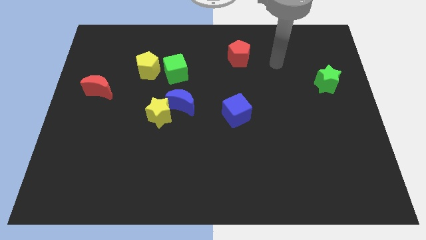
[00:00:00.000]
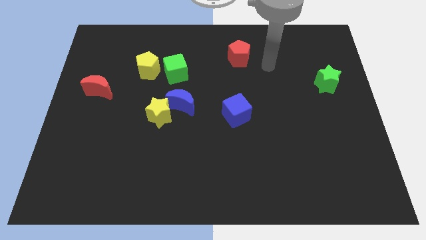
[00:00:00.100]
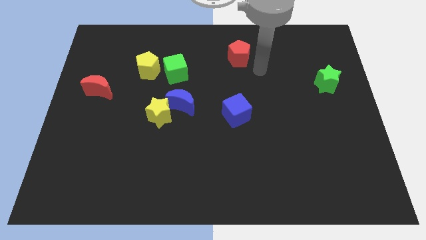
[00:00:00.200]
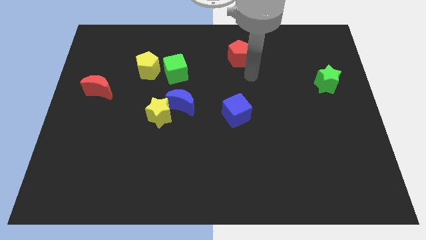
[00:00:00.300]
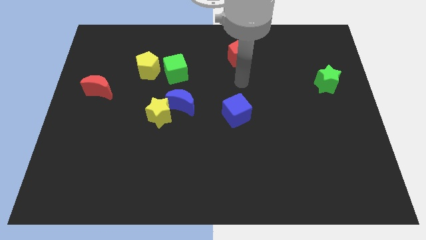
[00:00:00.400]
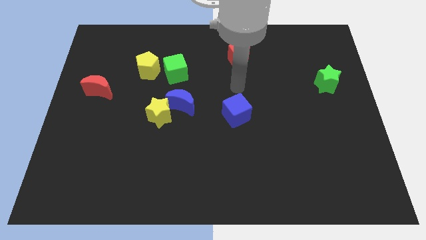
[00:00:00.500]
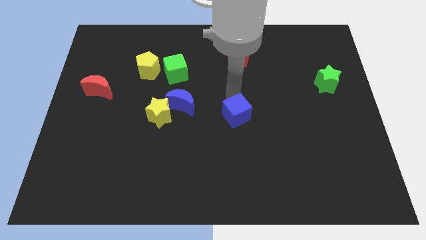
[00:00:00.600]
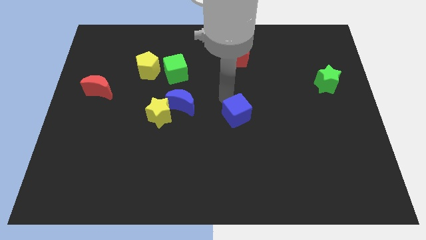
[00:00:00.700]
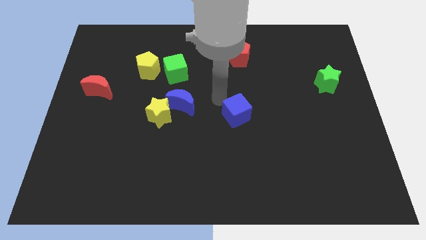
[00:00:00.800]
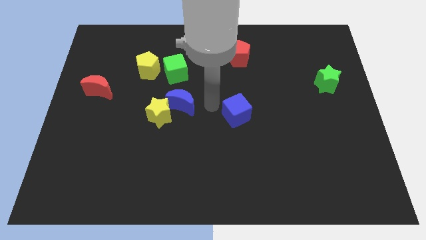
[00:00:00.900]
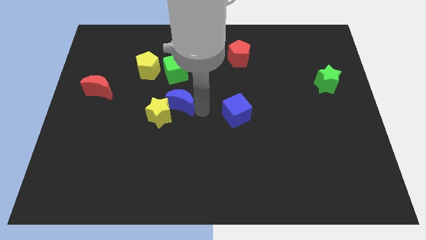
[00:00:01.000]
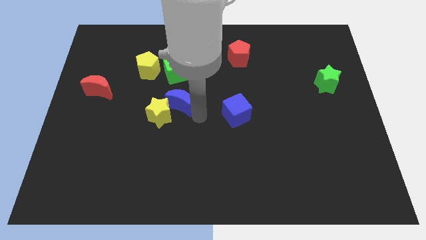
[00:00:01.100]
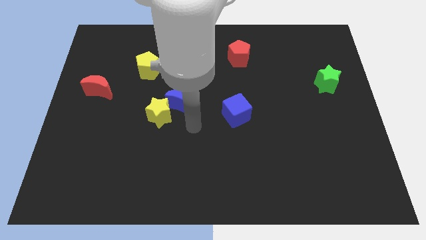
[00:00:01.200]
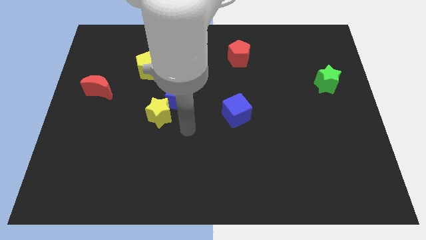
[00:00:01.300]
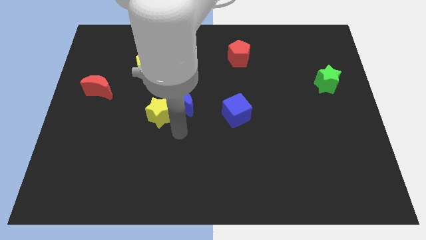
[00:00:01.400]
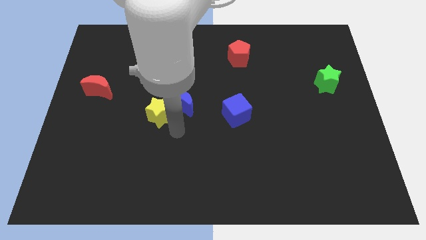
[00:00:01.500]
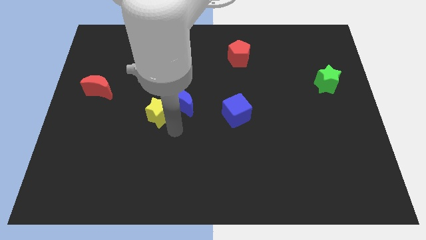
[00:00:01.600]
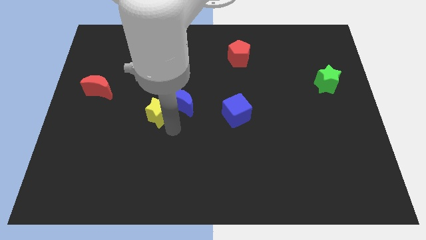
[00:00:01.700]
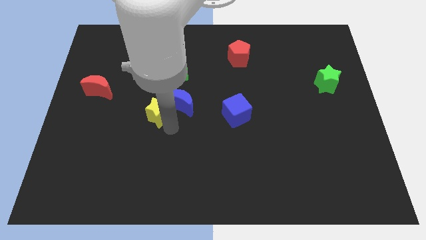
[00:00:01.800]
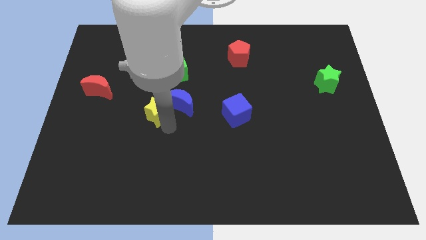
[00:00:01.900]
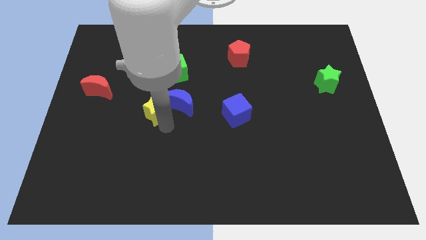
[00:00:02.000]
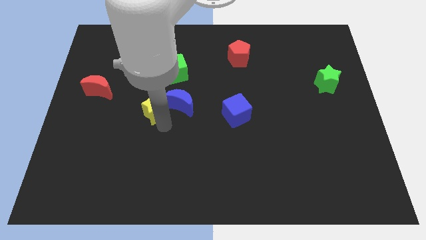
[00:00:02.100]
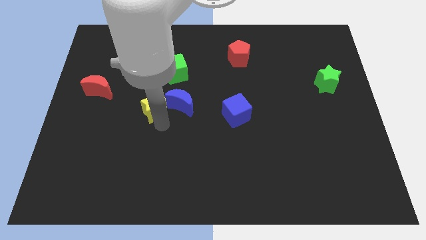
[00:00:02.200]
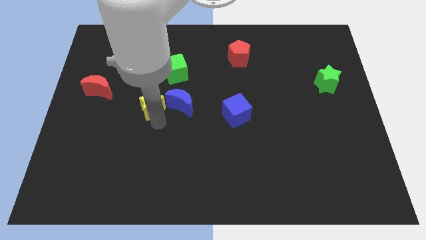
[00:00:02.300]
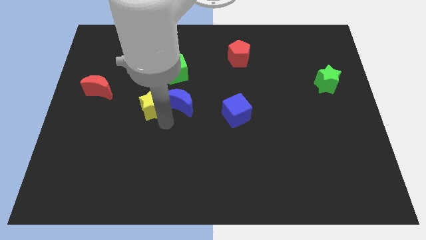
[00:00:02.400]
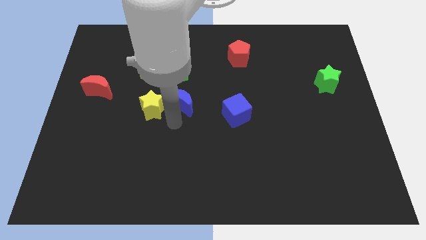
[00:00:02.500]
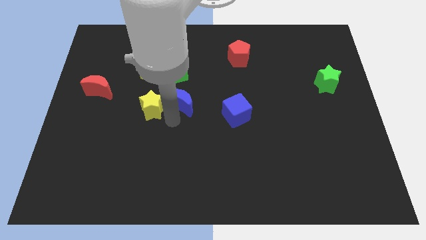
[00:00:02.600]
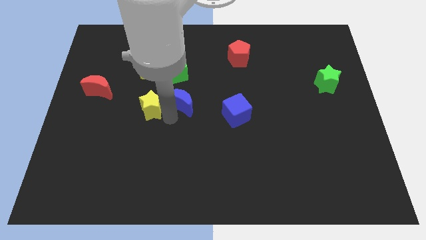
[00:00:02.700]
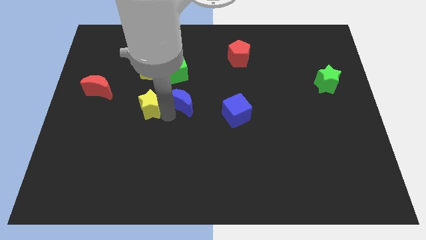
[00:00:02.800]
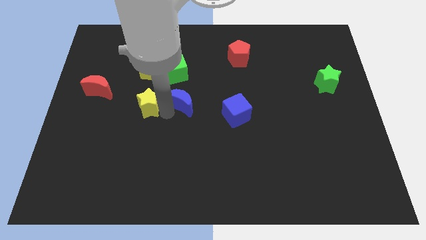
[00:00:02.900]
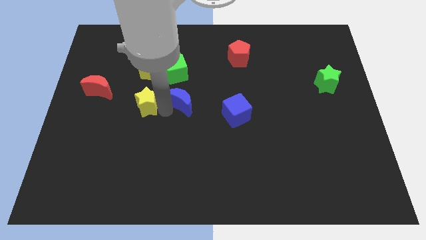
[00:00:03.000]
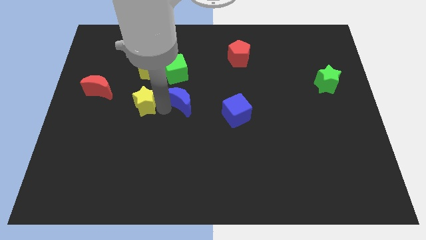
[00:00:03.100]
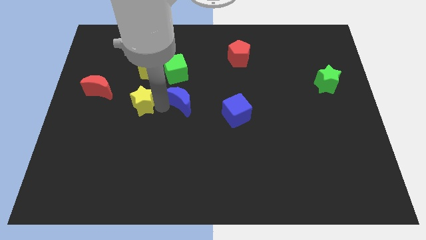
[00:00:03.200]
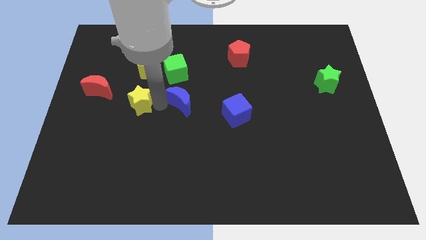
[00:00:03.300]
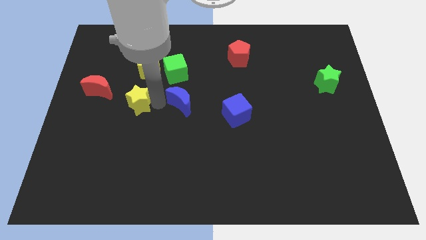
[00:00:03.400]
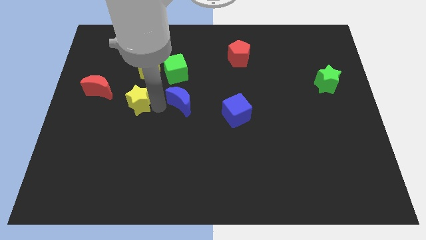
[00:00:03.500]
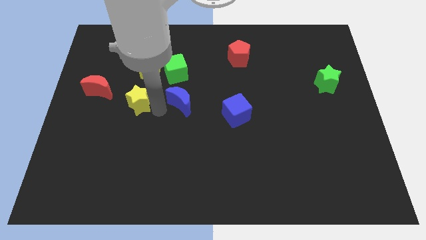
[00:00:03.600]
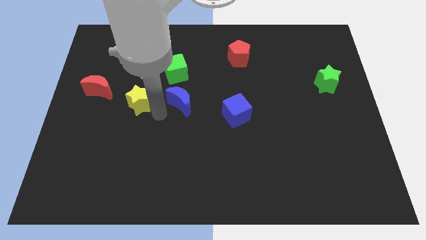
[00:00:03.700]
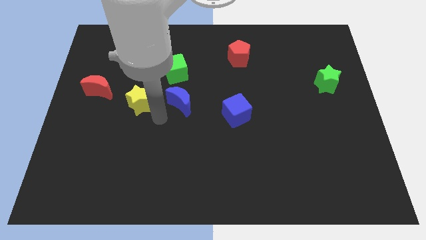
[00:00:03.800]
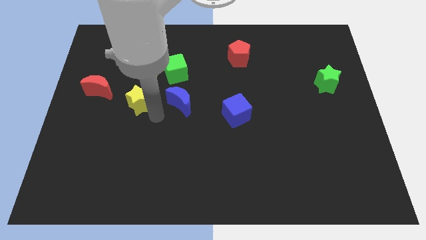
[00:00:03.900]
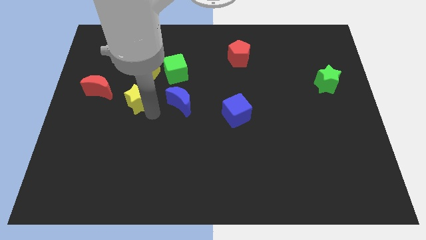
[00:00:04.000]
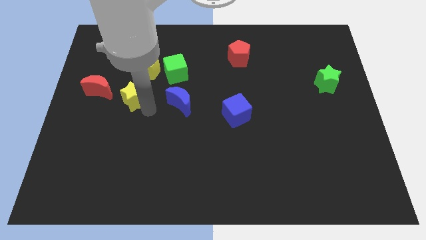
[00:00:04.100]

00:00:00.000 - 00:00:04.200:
push the yellow star a bit up and left diagonally

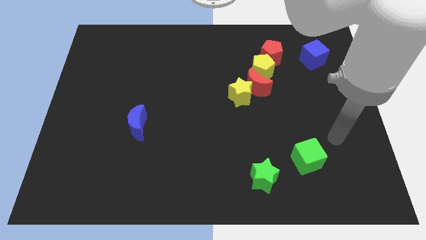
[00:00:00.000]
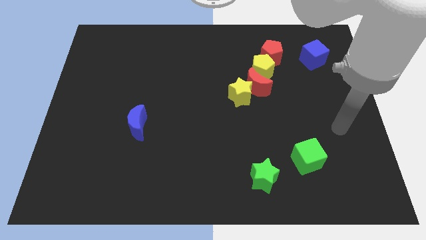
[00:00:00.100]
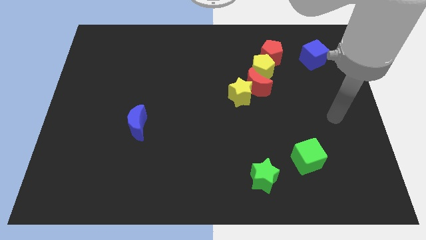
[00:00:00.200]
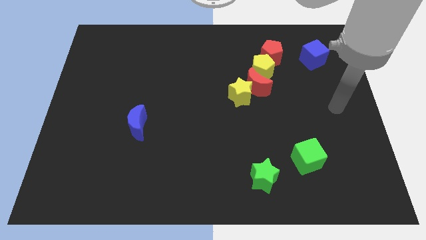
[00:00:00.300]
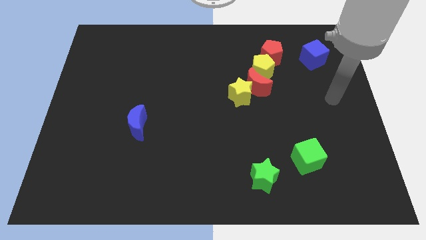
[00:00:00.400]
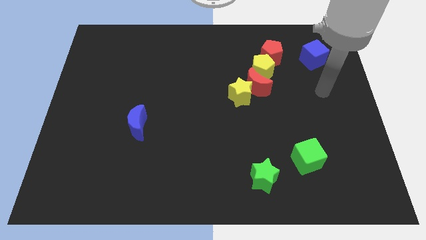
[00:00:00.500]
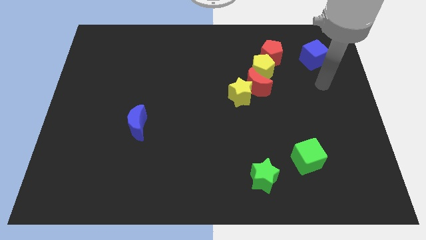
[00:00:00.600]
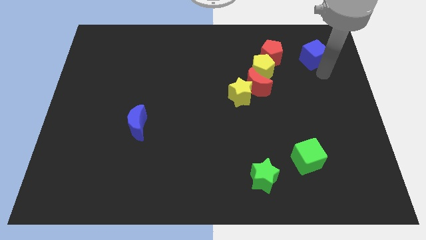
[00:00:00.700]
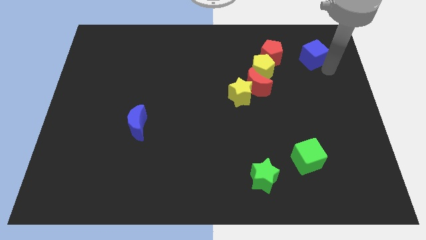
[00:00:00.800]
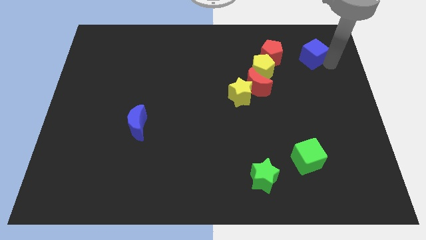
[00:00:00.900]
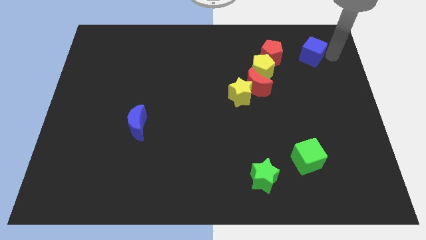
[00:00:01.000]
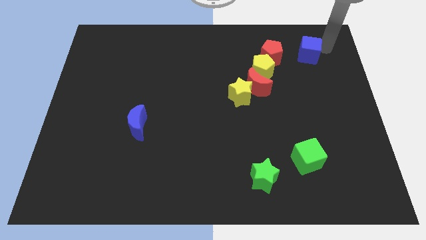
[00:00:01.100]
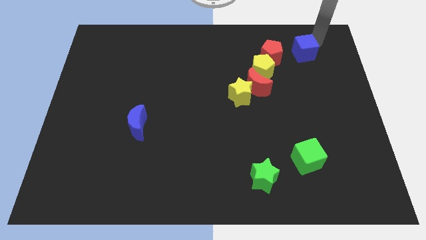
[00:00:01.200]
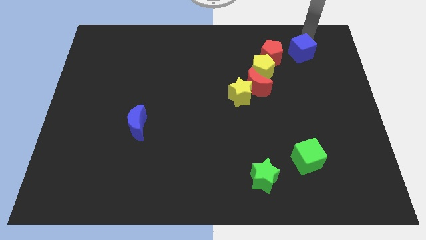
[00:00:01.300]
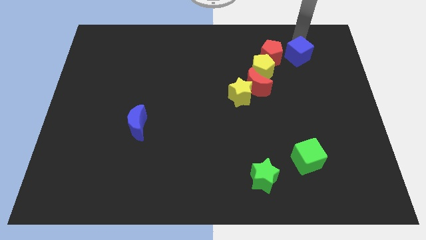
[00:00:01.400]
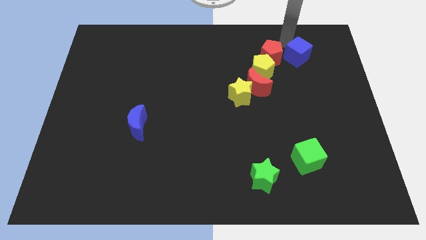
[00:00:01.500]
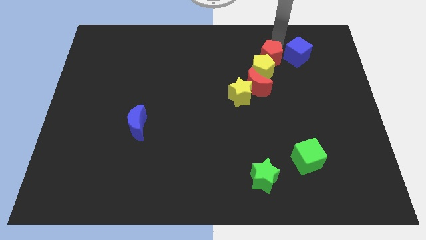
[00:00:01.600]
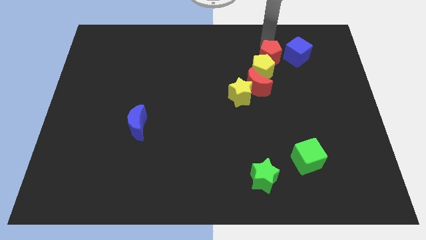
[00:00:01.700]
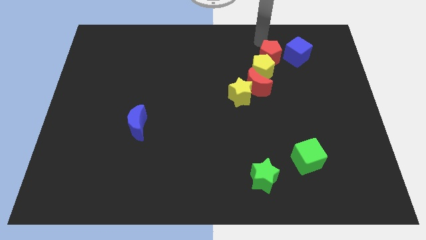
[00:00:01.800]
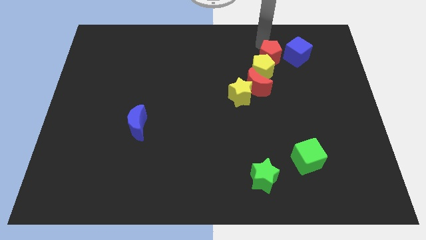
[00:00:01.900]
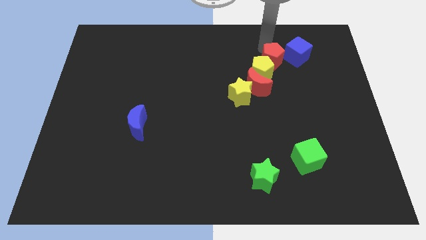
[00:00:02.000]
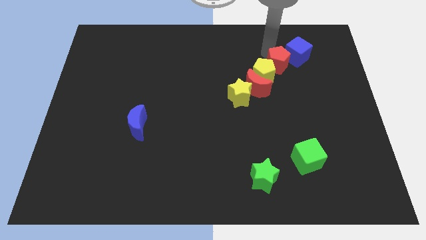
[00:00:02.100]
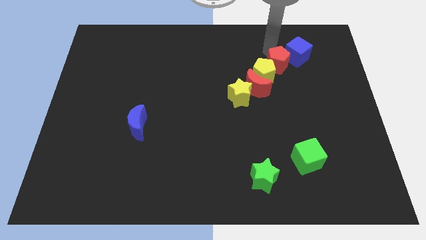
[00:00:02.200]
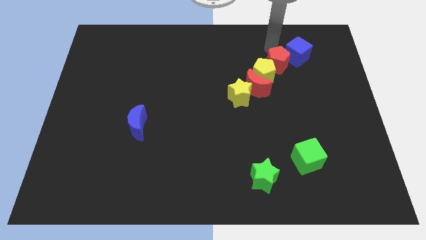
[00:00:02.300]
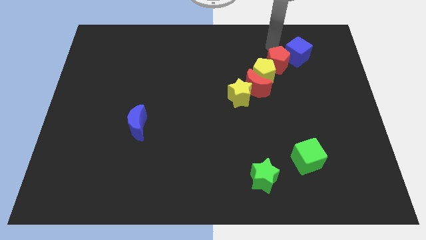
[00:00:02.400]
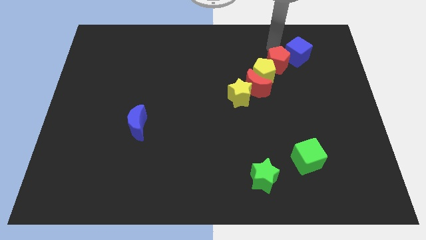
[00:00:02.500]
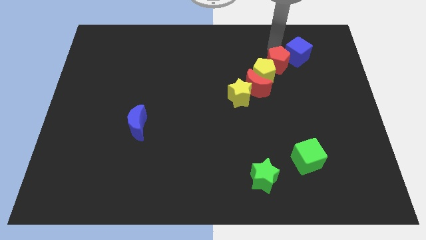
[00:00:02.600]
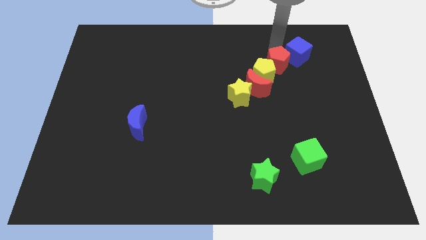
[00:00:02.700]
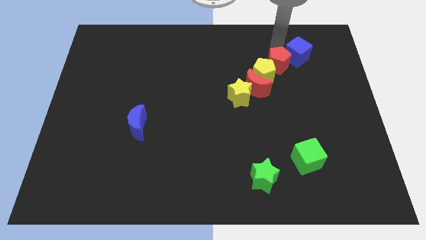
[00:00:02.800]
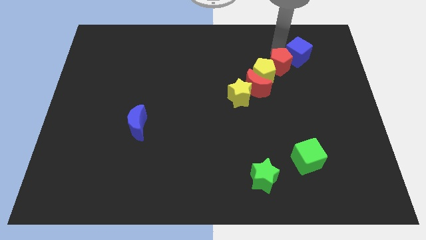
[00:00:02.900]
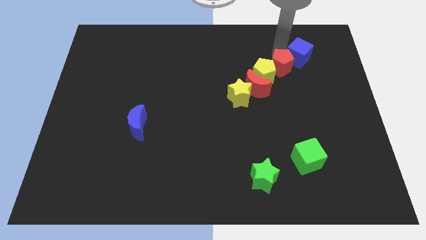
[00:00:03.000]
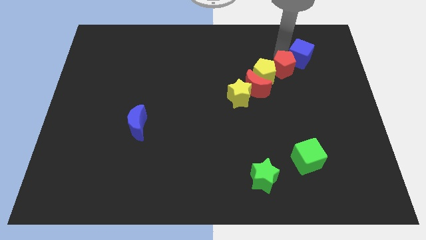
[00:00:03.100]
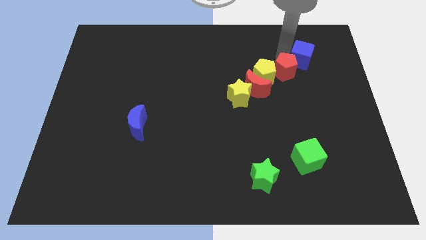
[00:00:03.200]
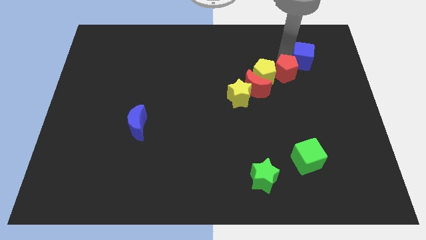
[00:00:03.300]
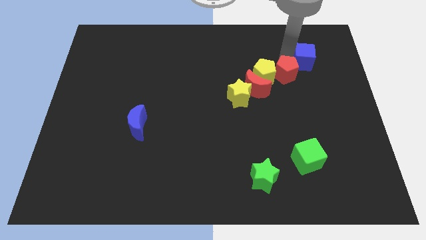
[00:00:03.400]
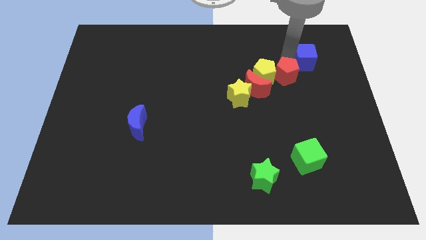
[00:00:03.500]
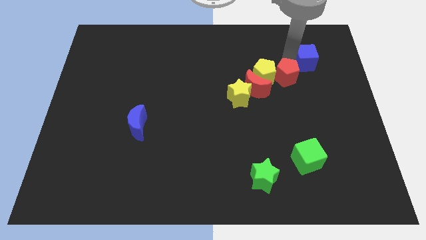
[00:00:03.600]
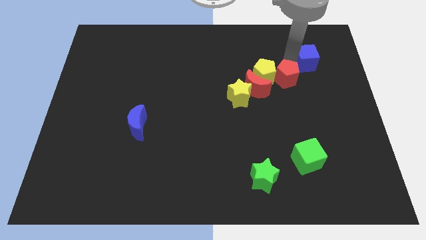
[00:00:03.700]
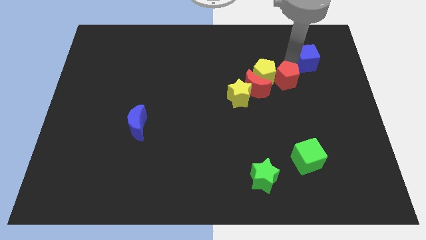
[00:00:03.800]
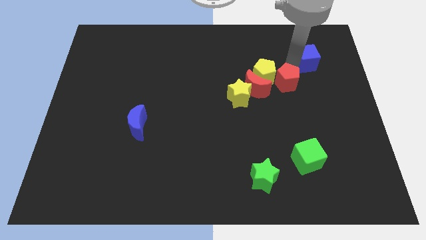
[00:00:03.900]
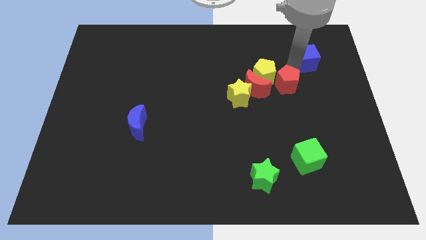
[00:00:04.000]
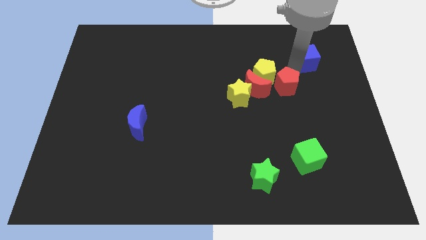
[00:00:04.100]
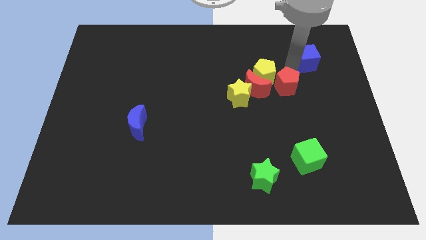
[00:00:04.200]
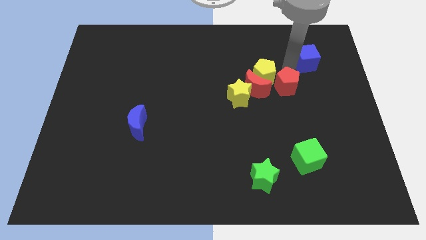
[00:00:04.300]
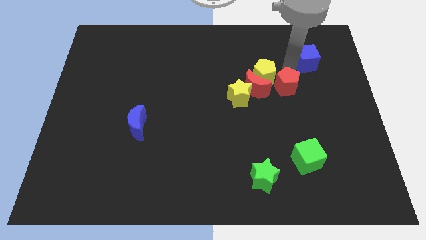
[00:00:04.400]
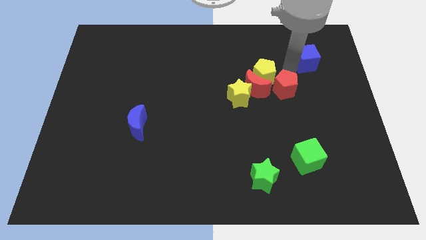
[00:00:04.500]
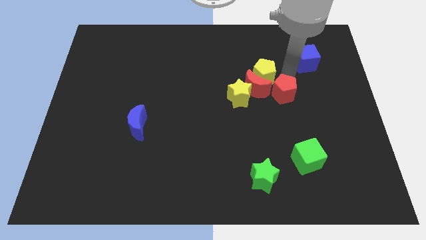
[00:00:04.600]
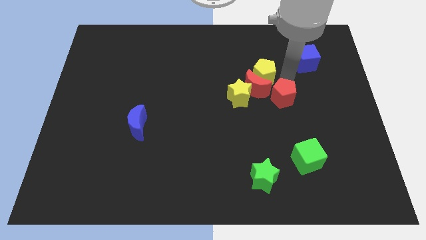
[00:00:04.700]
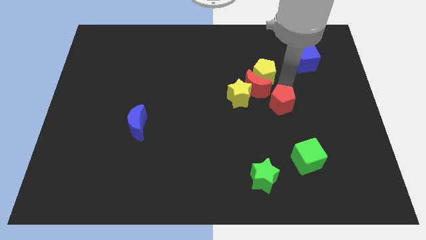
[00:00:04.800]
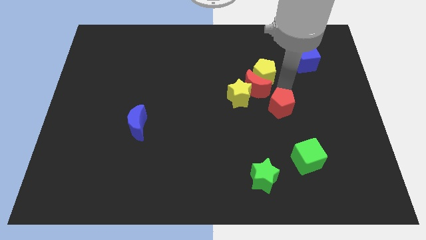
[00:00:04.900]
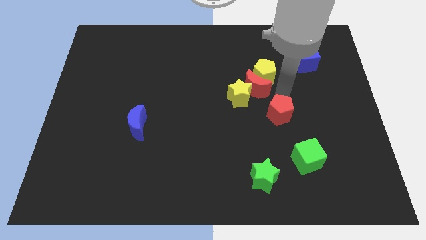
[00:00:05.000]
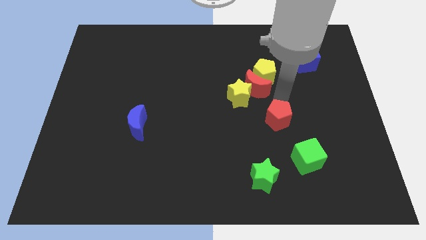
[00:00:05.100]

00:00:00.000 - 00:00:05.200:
slide the red pentagon down
